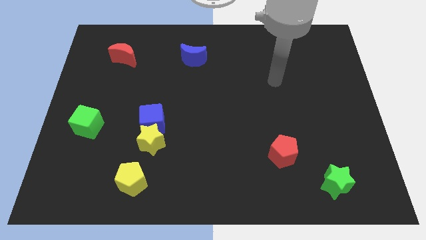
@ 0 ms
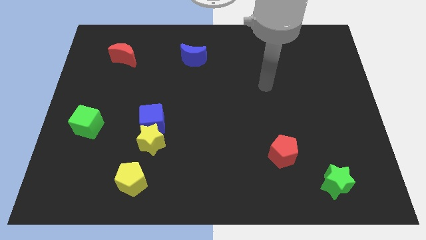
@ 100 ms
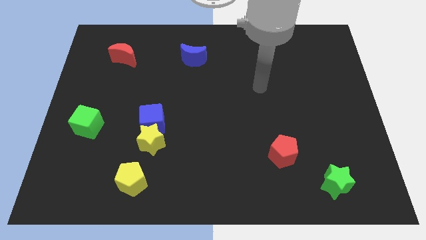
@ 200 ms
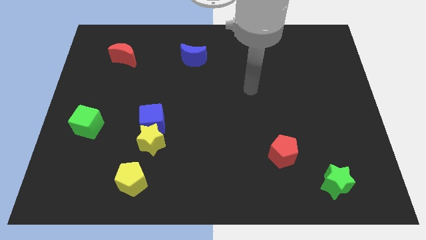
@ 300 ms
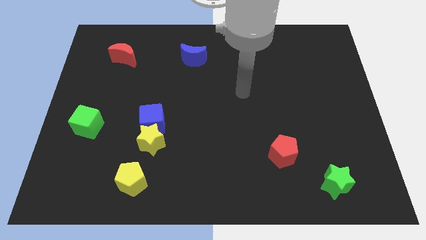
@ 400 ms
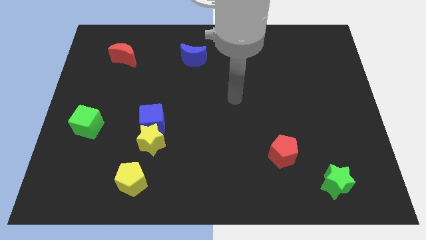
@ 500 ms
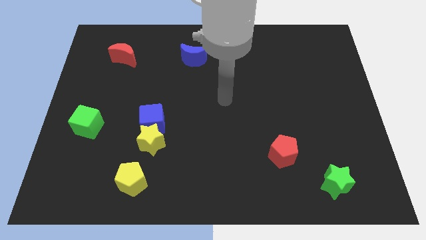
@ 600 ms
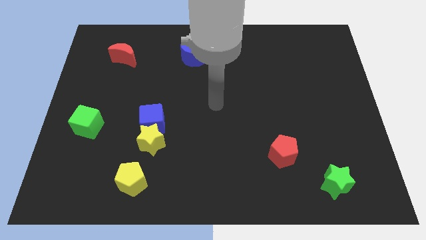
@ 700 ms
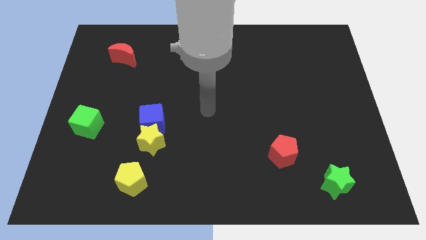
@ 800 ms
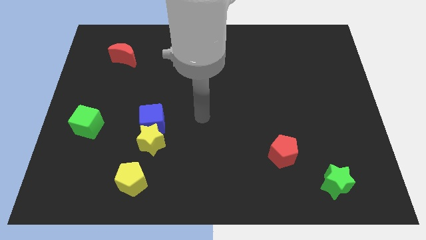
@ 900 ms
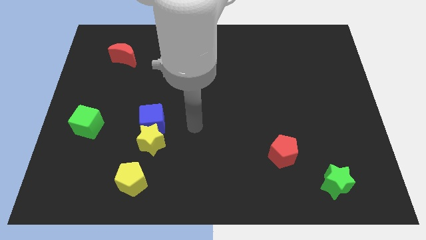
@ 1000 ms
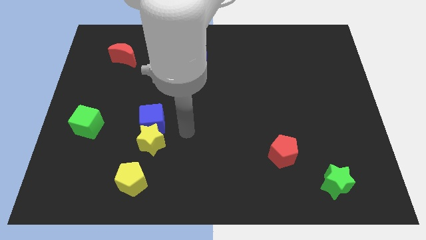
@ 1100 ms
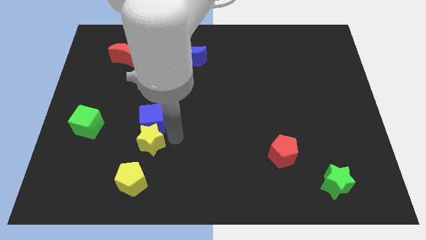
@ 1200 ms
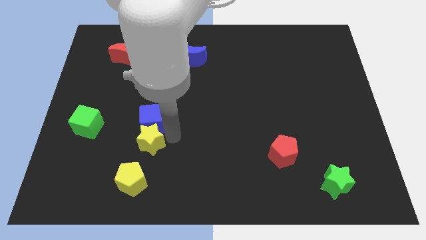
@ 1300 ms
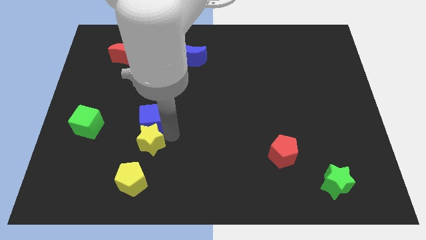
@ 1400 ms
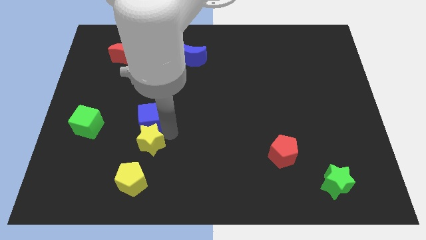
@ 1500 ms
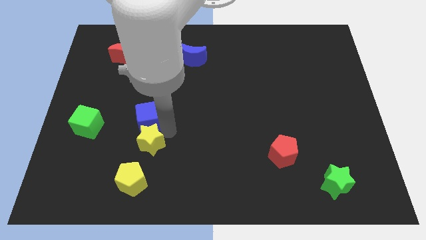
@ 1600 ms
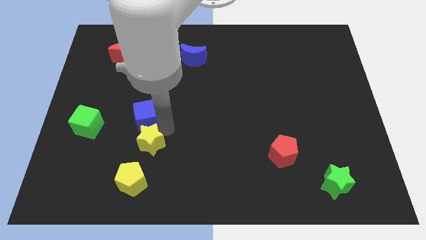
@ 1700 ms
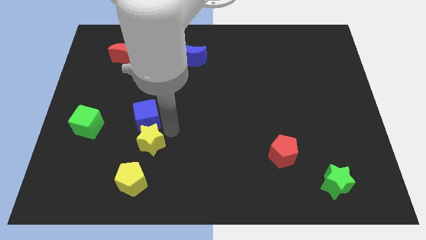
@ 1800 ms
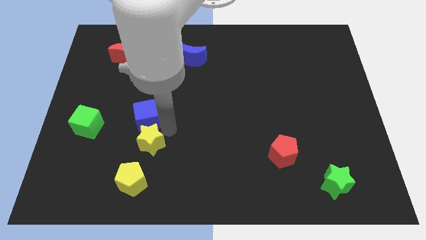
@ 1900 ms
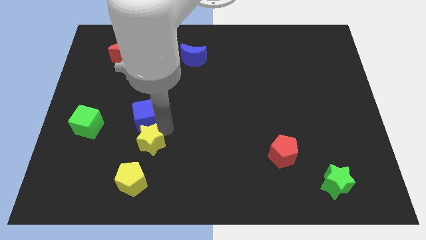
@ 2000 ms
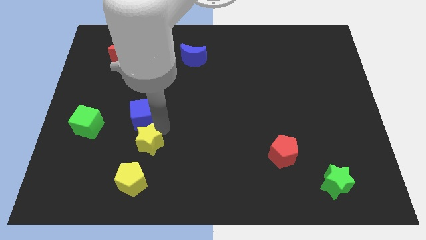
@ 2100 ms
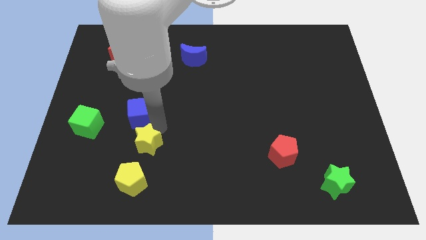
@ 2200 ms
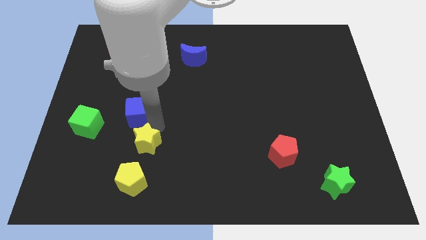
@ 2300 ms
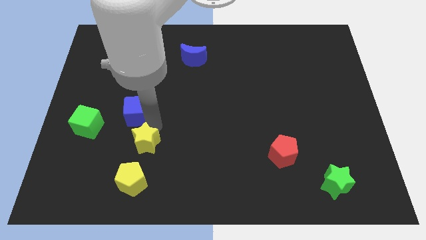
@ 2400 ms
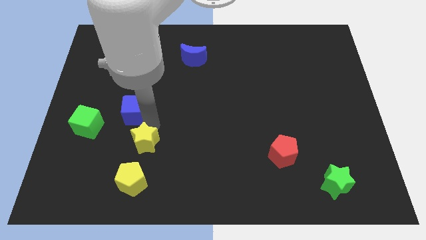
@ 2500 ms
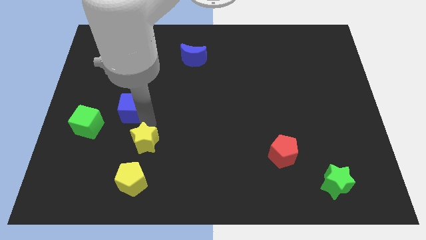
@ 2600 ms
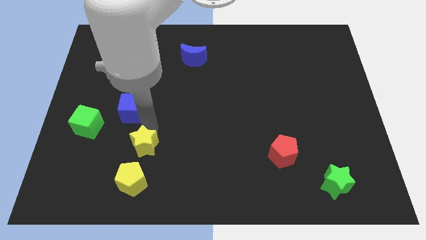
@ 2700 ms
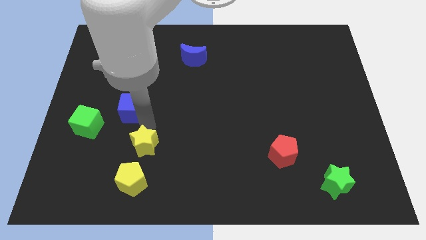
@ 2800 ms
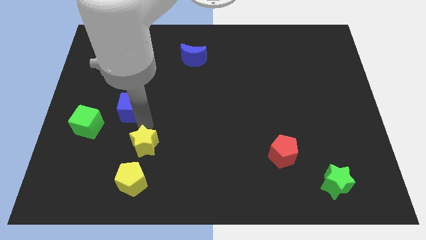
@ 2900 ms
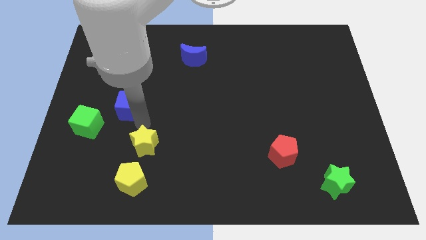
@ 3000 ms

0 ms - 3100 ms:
slide the blue cube diagonally upwards and left a bit

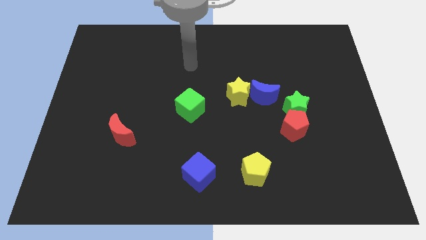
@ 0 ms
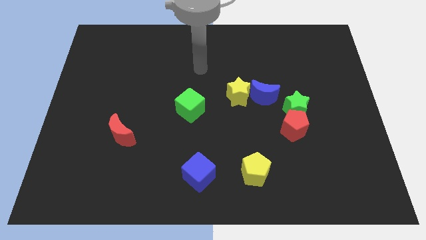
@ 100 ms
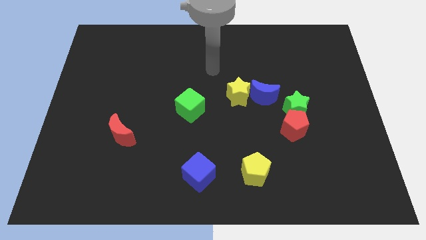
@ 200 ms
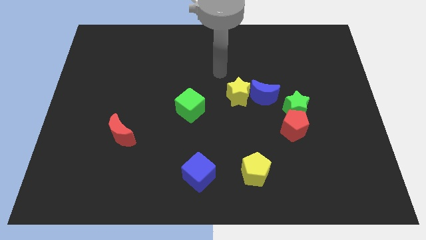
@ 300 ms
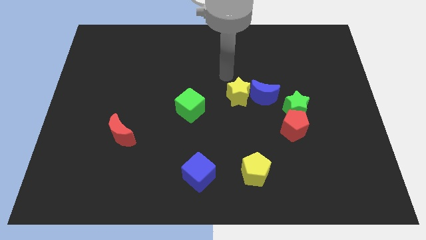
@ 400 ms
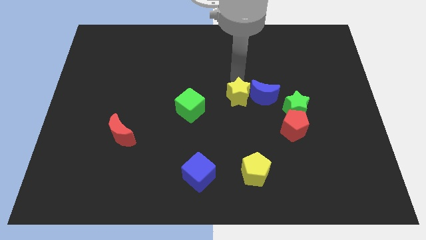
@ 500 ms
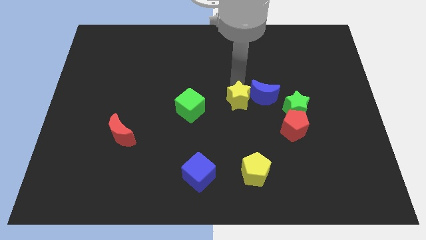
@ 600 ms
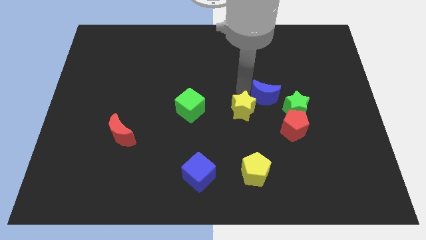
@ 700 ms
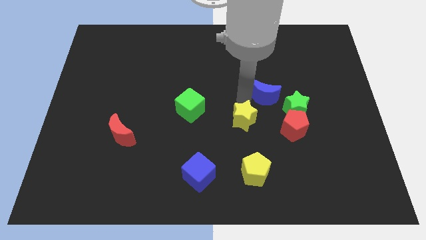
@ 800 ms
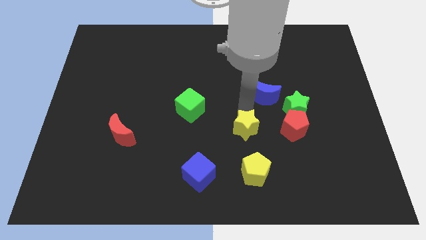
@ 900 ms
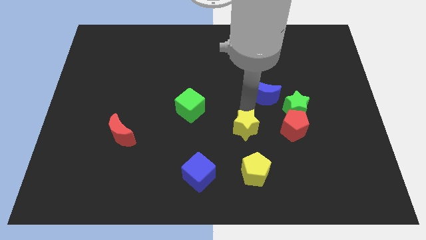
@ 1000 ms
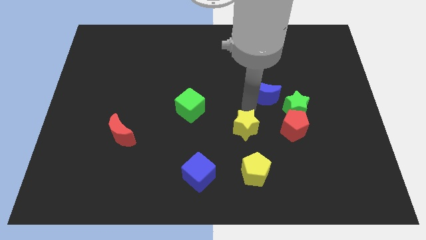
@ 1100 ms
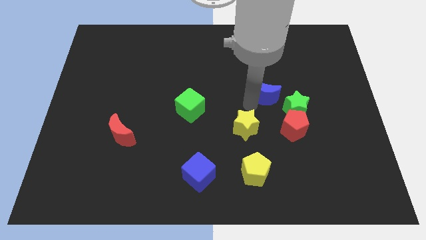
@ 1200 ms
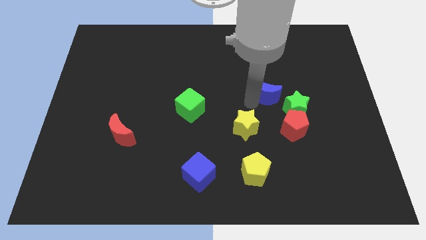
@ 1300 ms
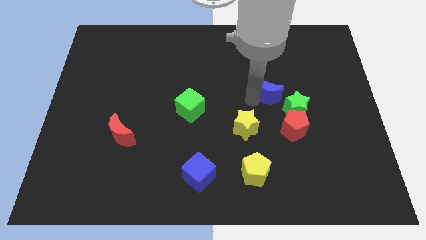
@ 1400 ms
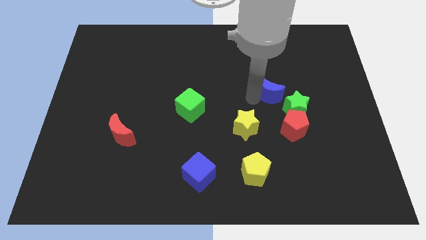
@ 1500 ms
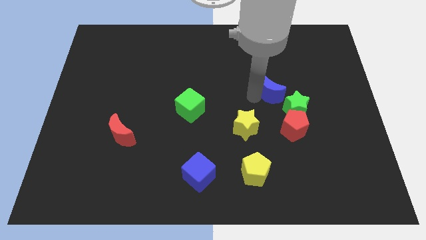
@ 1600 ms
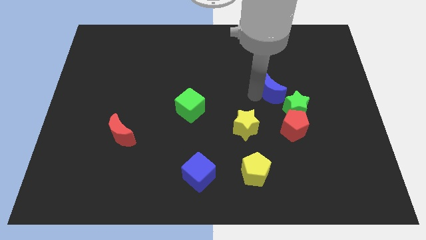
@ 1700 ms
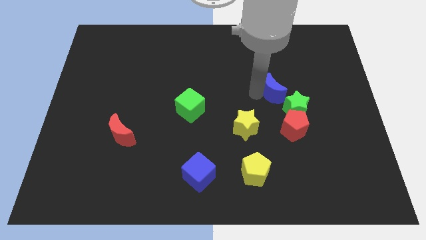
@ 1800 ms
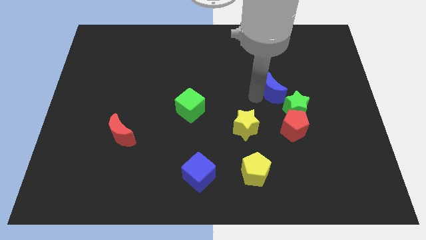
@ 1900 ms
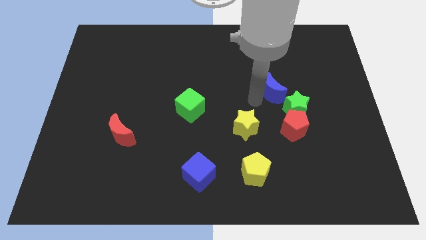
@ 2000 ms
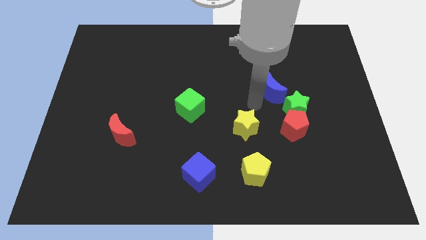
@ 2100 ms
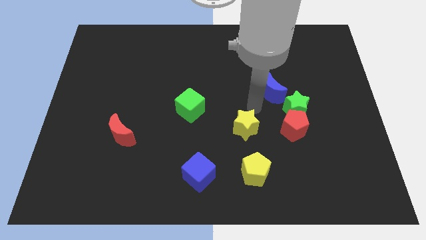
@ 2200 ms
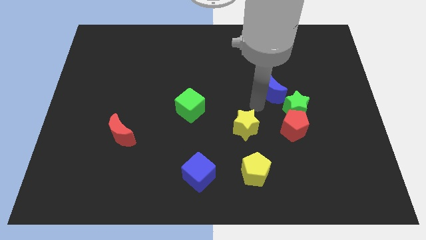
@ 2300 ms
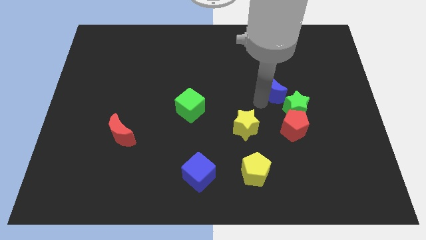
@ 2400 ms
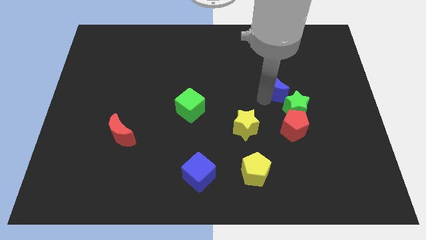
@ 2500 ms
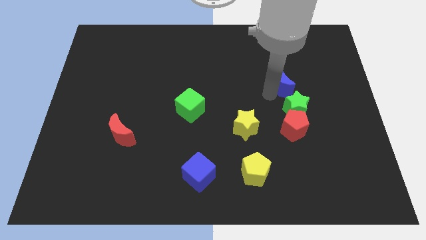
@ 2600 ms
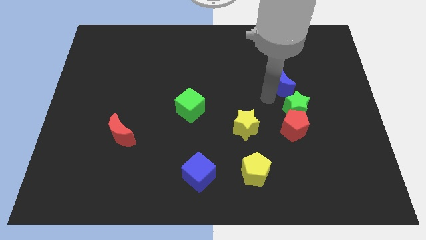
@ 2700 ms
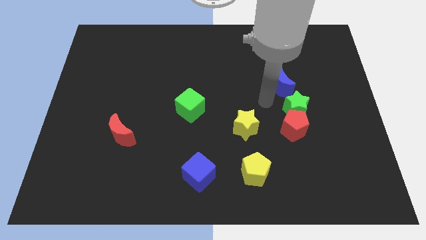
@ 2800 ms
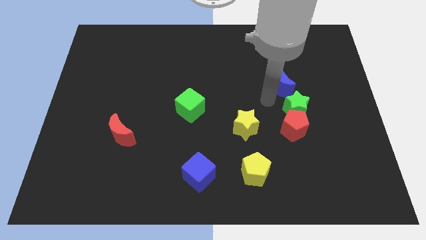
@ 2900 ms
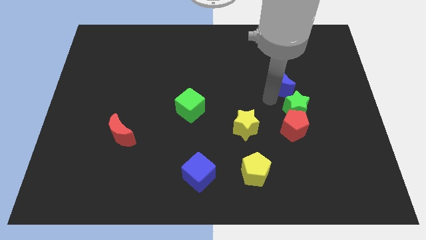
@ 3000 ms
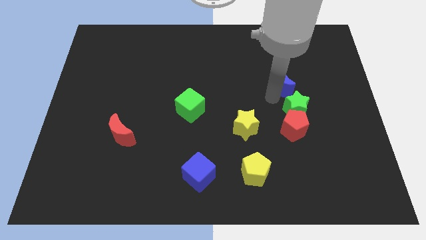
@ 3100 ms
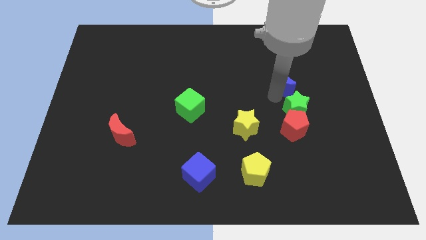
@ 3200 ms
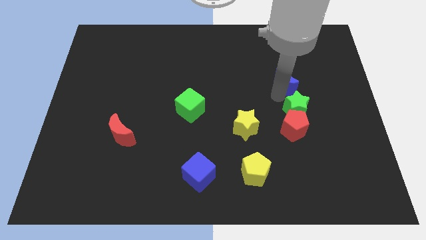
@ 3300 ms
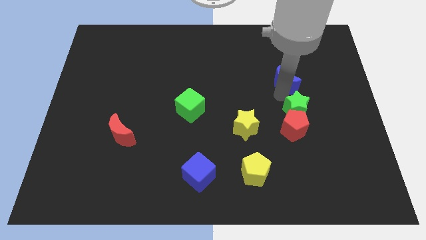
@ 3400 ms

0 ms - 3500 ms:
move the blue moon upwards and to the right diagonally somewhat

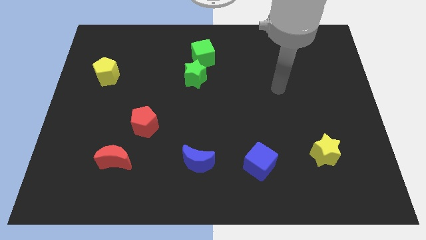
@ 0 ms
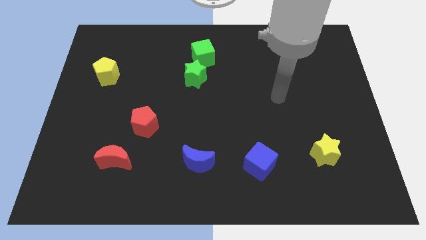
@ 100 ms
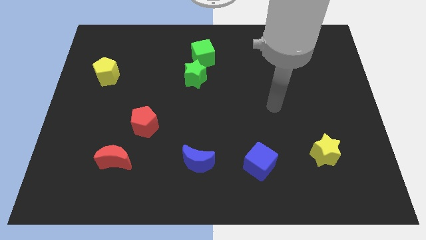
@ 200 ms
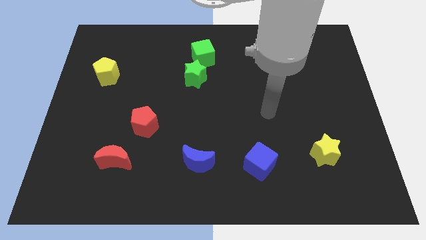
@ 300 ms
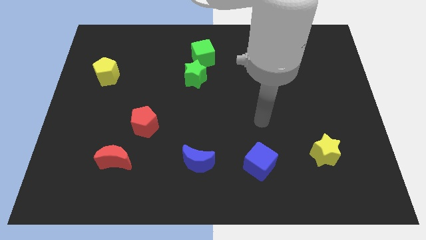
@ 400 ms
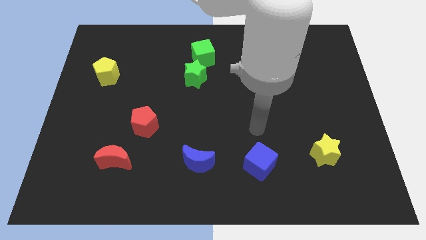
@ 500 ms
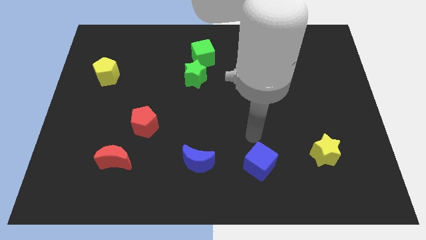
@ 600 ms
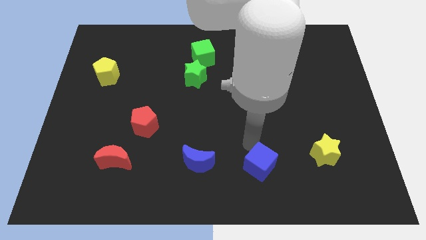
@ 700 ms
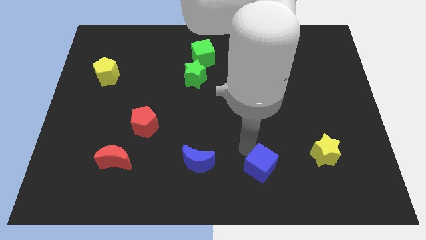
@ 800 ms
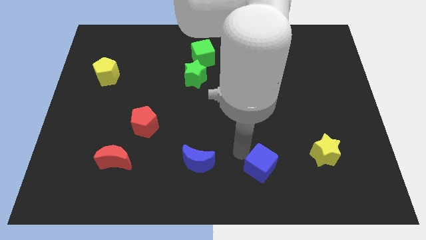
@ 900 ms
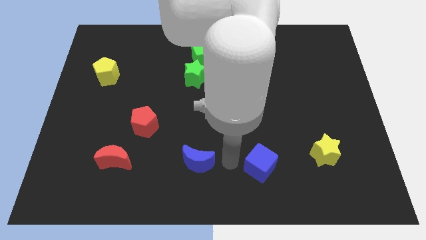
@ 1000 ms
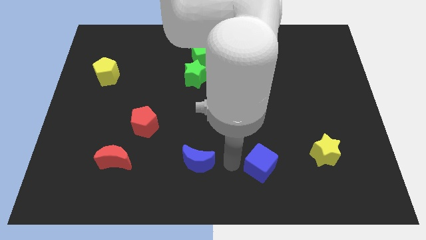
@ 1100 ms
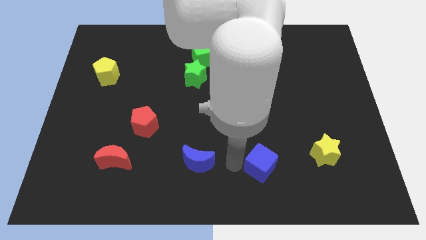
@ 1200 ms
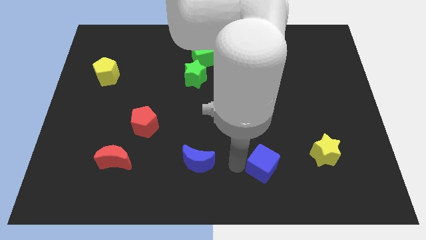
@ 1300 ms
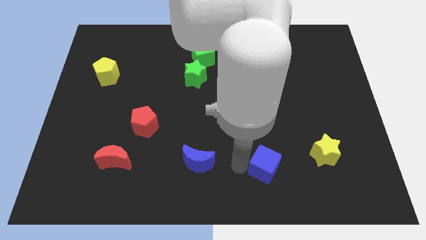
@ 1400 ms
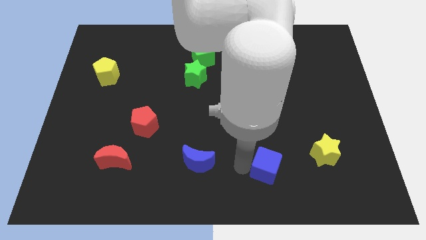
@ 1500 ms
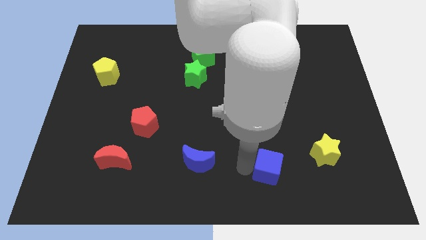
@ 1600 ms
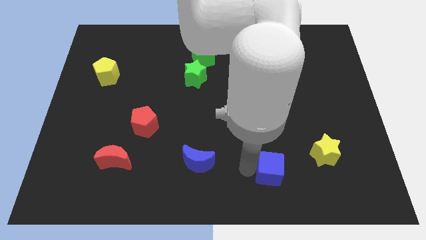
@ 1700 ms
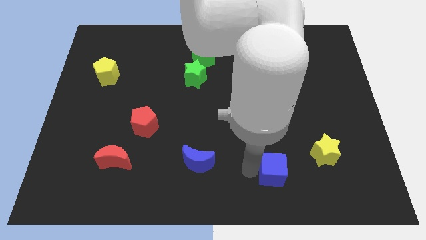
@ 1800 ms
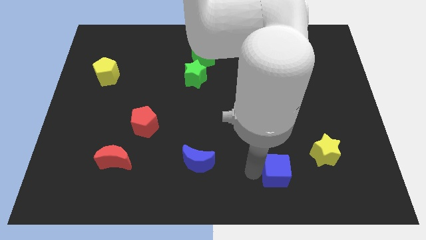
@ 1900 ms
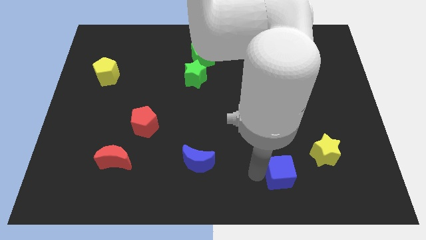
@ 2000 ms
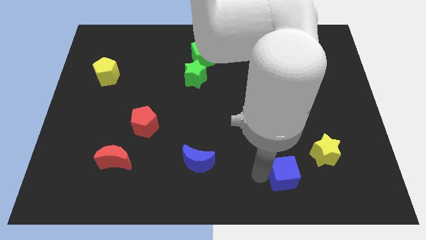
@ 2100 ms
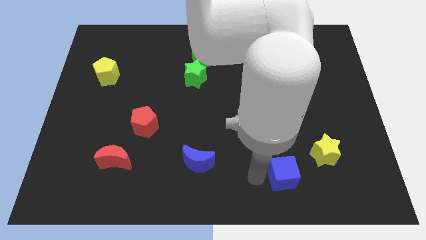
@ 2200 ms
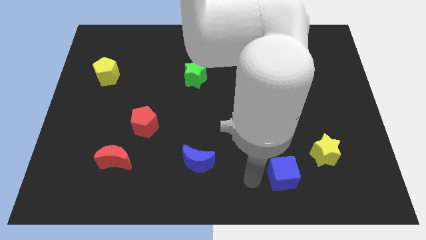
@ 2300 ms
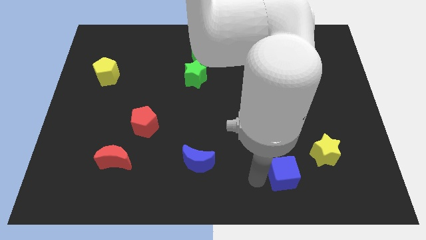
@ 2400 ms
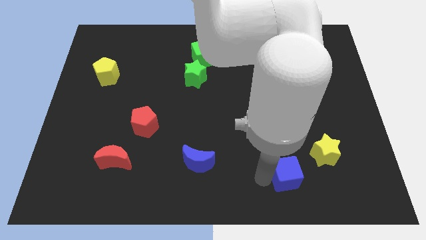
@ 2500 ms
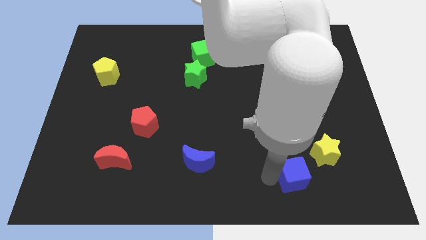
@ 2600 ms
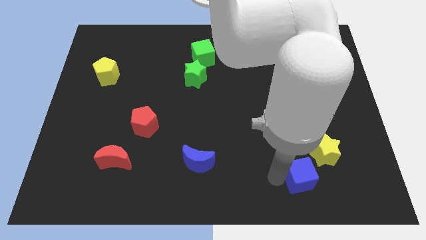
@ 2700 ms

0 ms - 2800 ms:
slide the blue cube somewhat right
